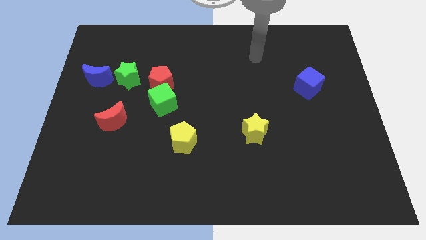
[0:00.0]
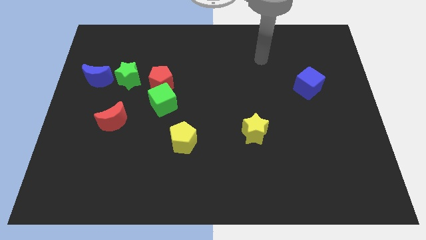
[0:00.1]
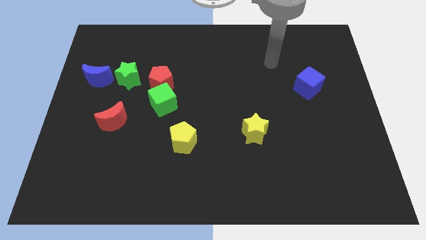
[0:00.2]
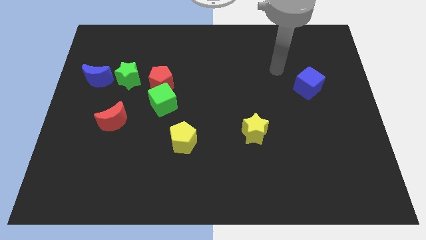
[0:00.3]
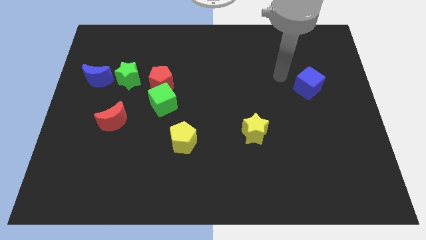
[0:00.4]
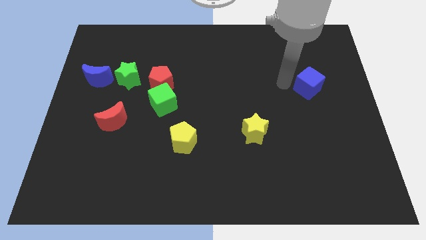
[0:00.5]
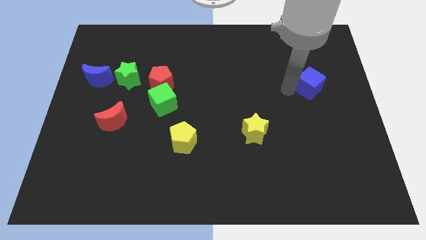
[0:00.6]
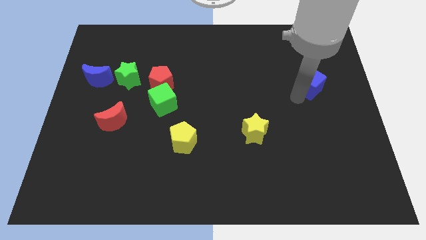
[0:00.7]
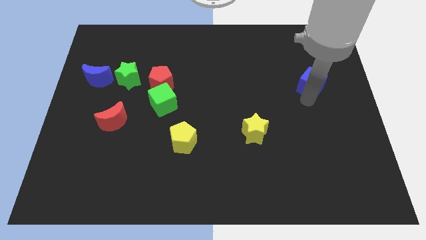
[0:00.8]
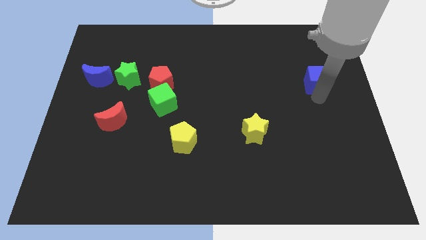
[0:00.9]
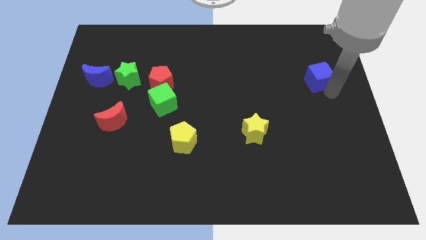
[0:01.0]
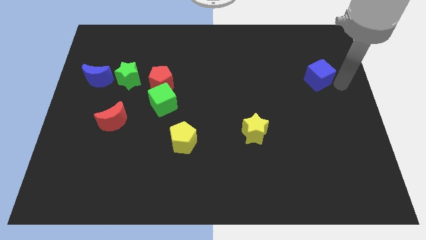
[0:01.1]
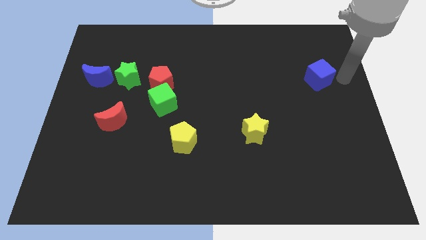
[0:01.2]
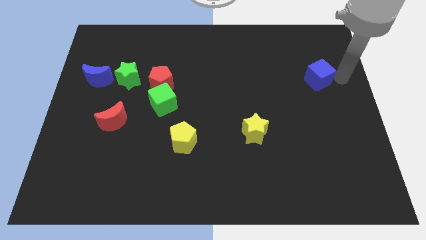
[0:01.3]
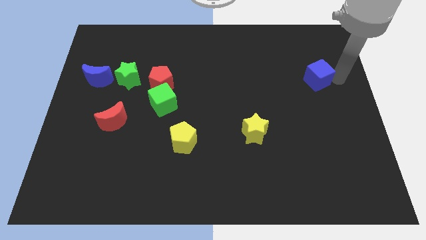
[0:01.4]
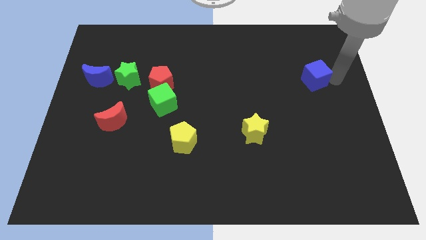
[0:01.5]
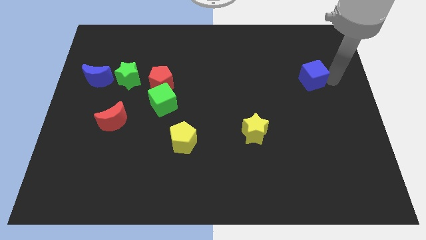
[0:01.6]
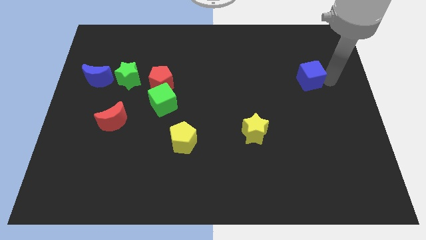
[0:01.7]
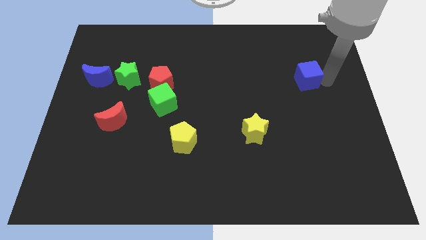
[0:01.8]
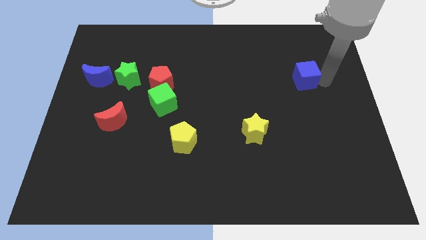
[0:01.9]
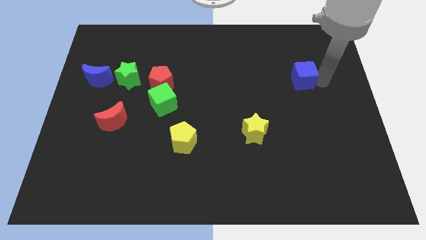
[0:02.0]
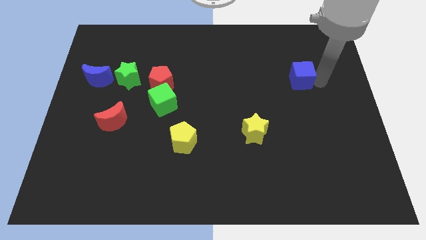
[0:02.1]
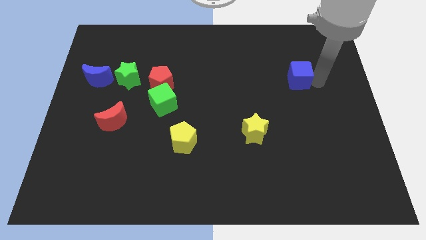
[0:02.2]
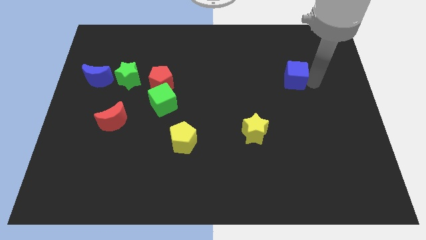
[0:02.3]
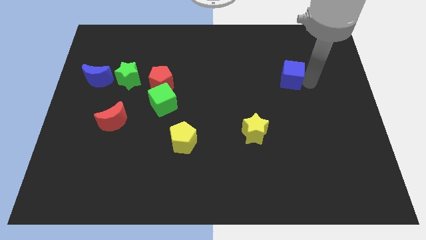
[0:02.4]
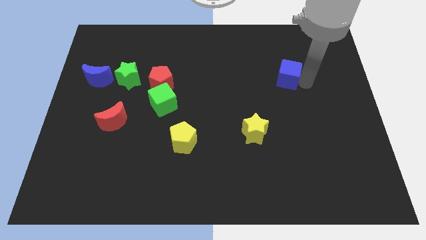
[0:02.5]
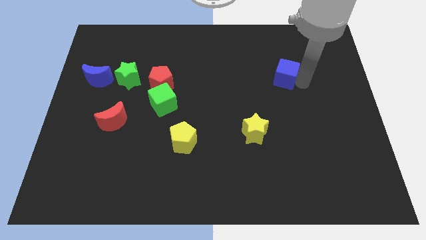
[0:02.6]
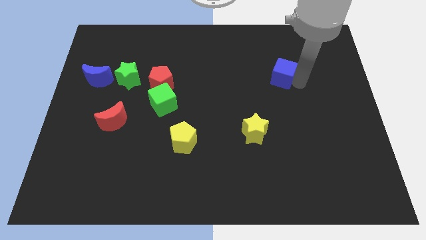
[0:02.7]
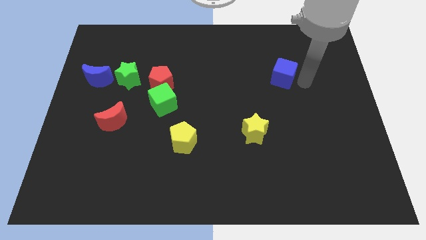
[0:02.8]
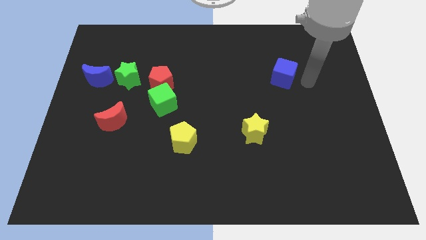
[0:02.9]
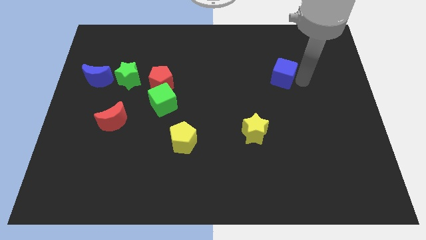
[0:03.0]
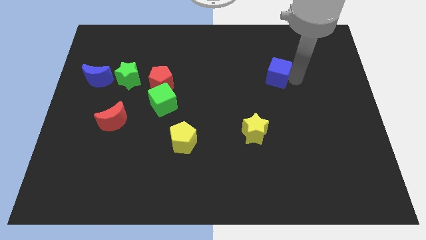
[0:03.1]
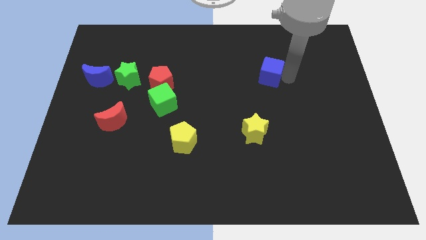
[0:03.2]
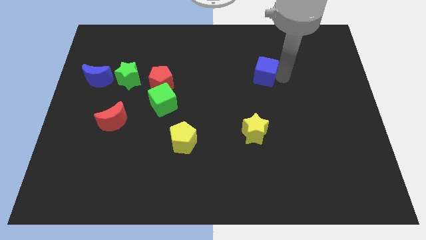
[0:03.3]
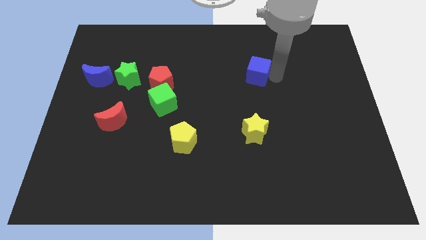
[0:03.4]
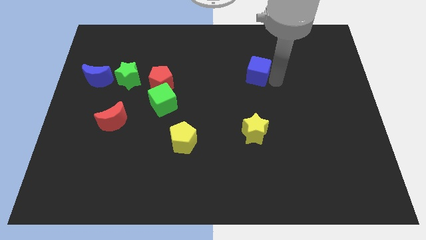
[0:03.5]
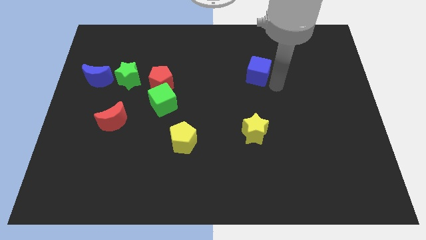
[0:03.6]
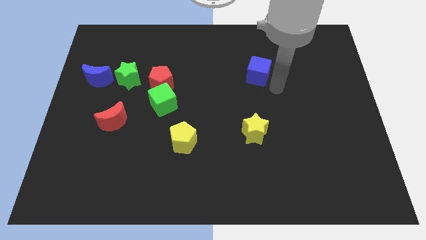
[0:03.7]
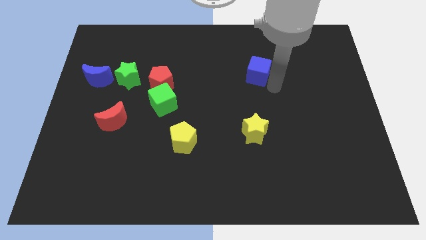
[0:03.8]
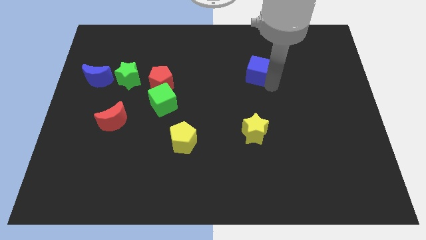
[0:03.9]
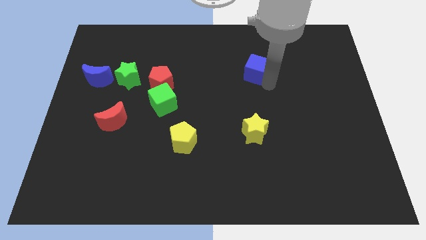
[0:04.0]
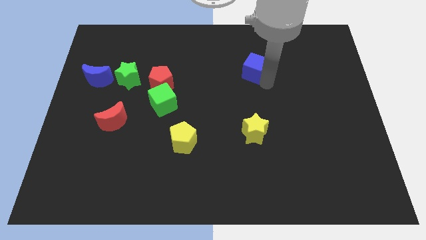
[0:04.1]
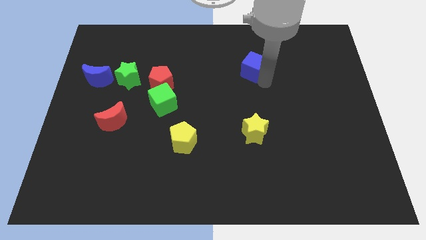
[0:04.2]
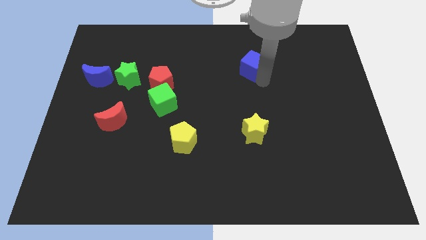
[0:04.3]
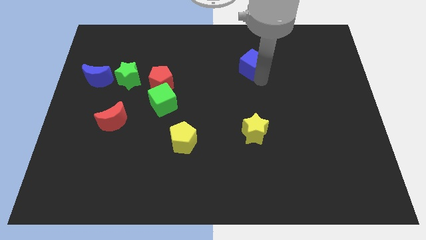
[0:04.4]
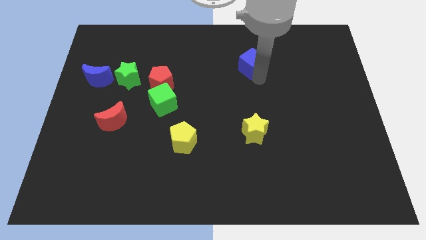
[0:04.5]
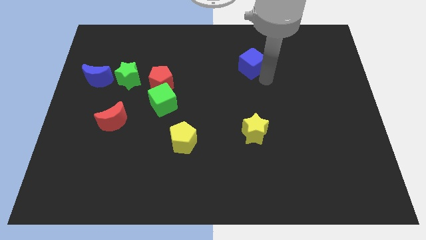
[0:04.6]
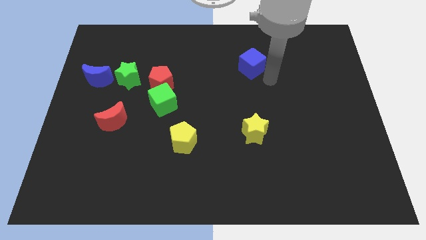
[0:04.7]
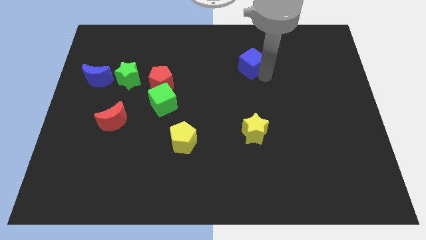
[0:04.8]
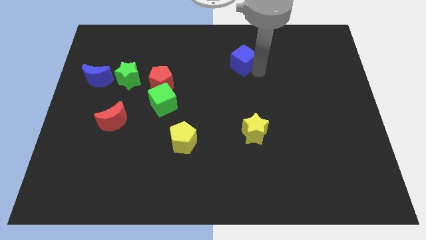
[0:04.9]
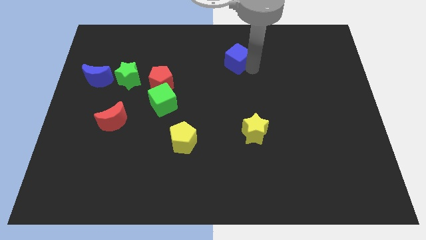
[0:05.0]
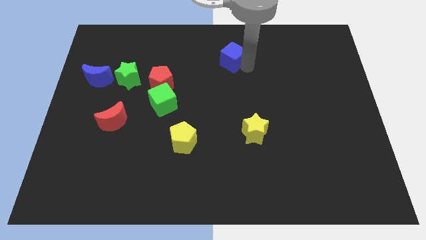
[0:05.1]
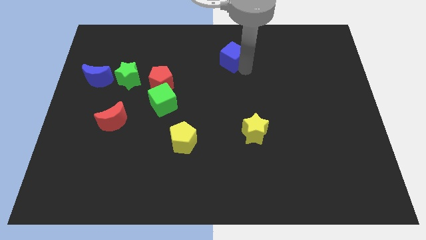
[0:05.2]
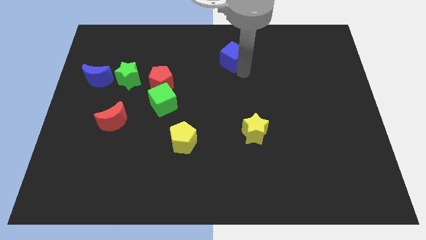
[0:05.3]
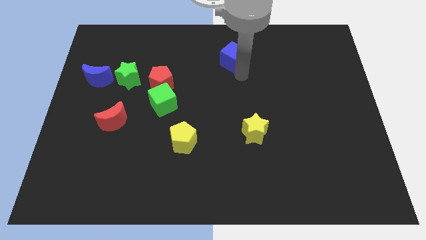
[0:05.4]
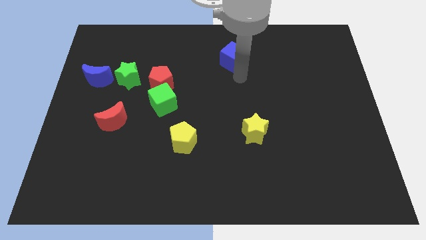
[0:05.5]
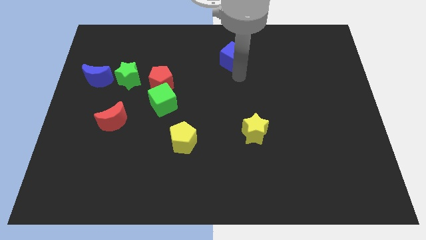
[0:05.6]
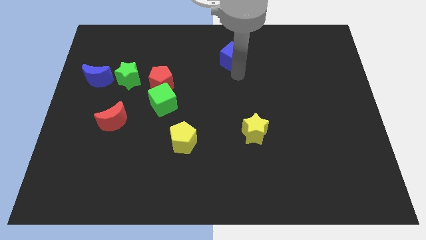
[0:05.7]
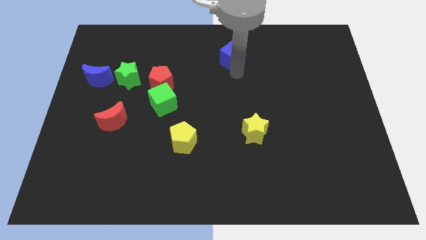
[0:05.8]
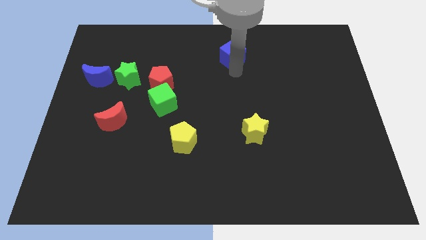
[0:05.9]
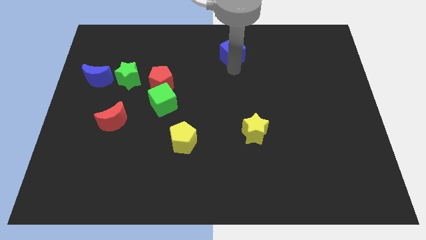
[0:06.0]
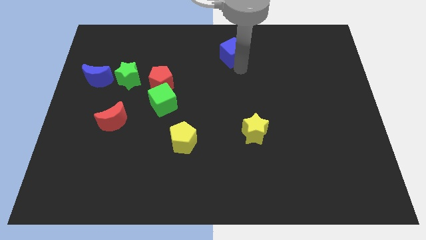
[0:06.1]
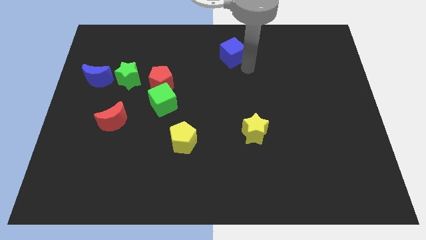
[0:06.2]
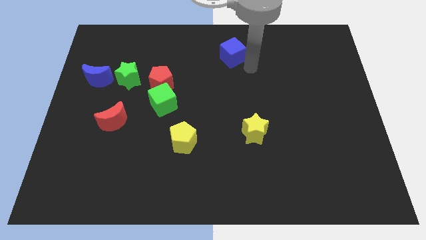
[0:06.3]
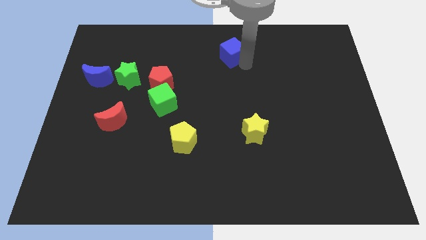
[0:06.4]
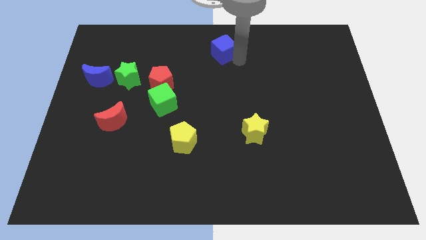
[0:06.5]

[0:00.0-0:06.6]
push the blue cube to the top
